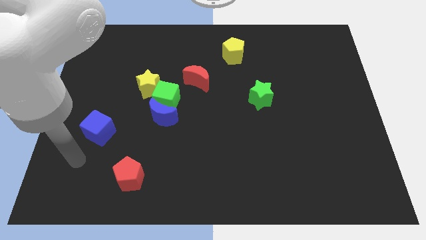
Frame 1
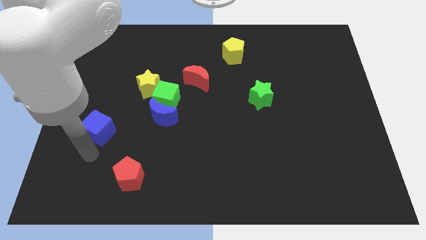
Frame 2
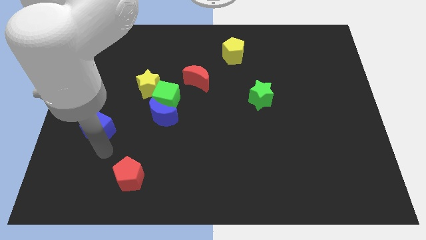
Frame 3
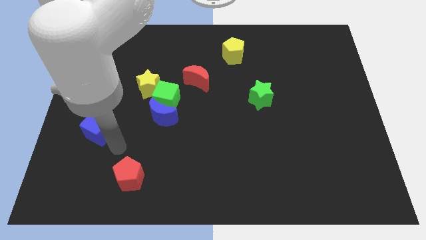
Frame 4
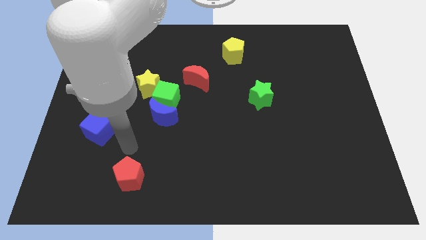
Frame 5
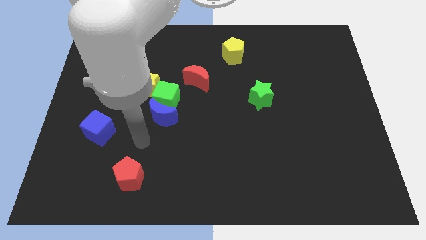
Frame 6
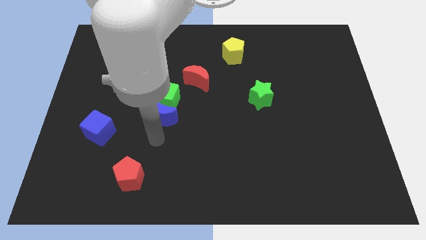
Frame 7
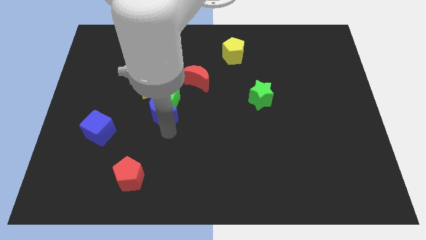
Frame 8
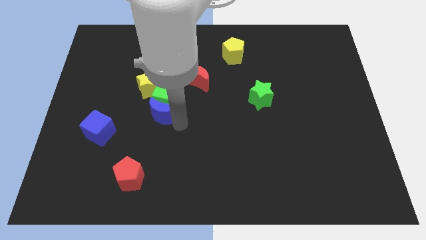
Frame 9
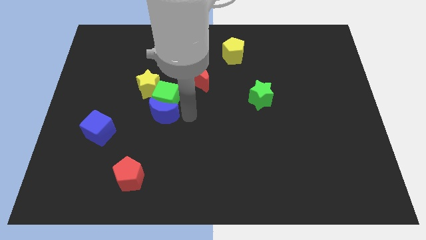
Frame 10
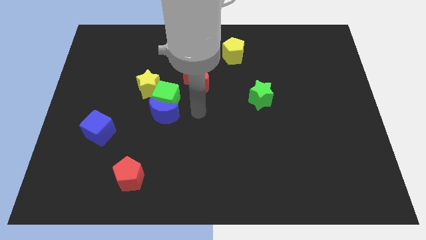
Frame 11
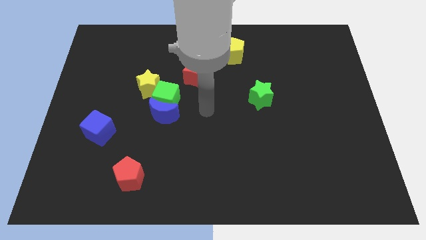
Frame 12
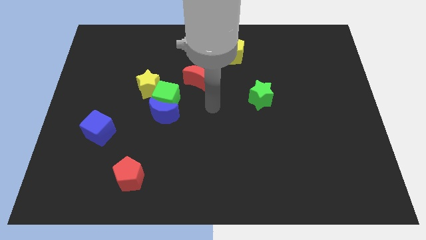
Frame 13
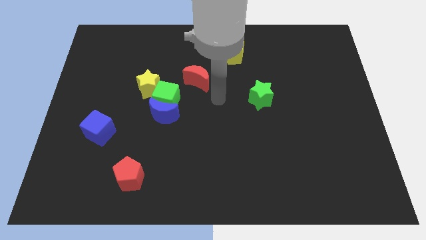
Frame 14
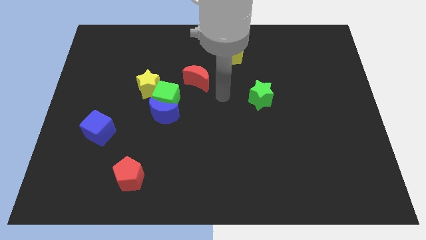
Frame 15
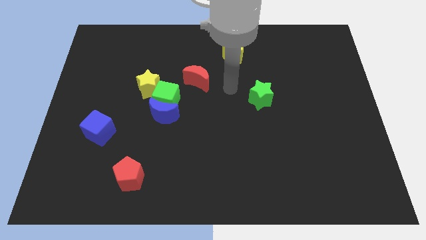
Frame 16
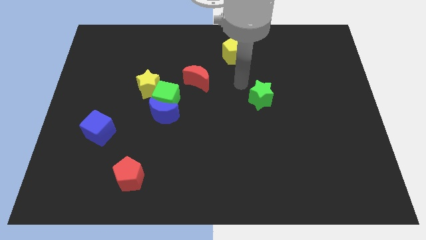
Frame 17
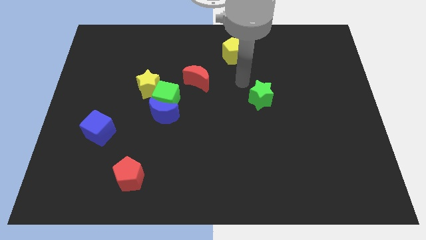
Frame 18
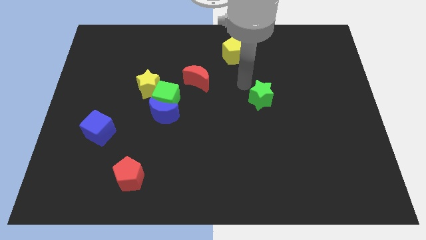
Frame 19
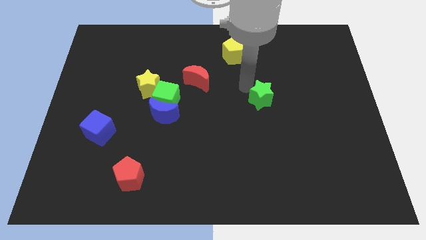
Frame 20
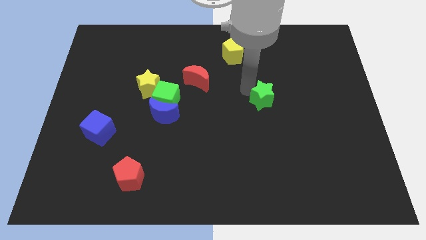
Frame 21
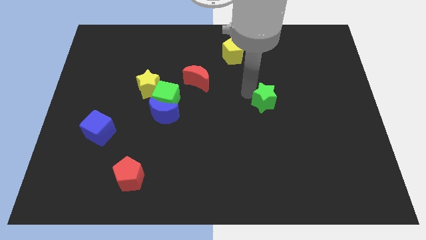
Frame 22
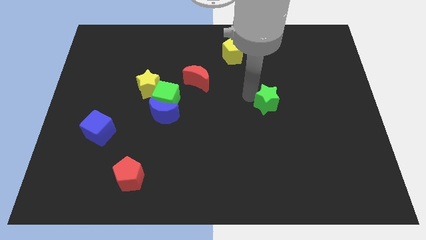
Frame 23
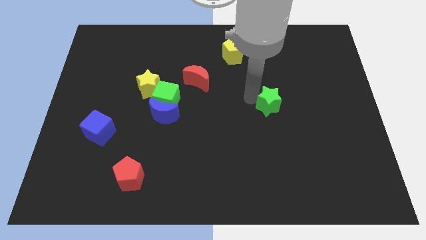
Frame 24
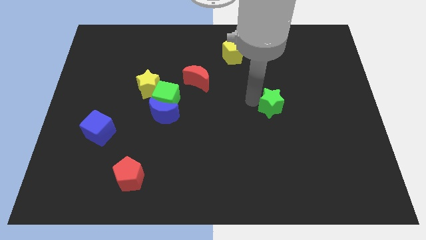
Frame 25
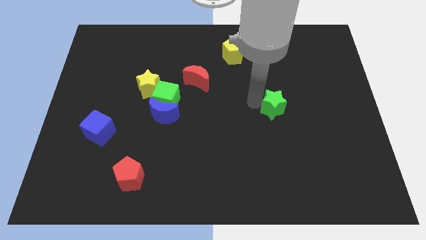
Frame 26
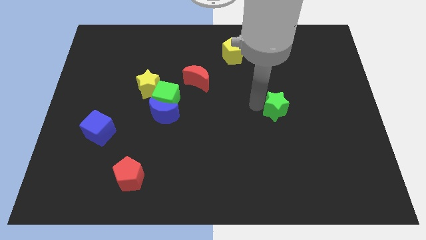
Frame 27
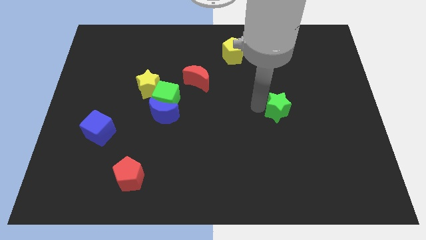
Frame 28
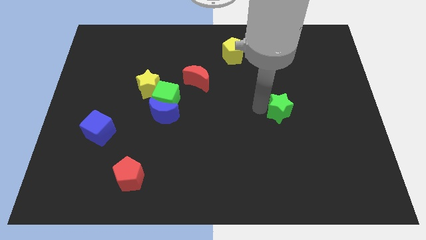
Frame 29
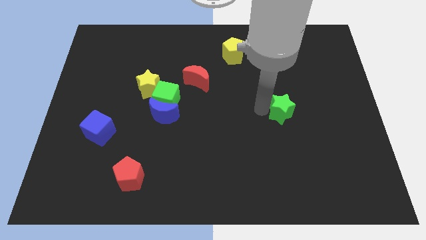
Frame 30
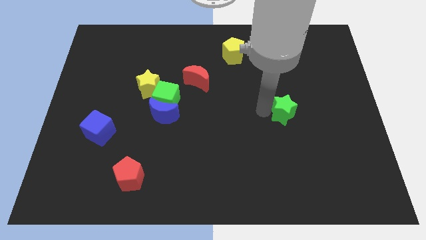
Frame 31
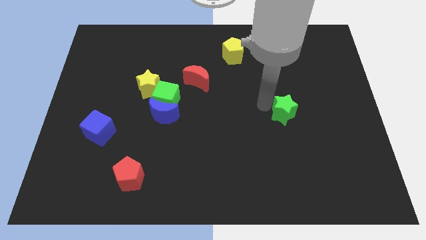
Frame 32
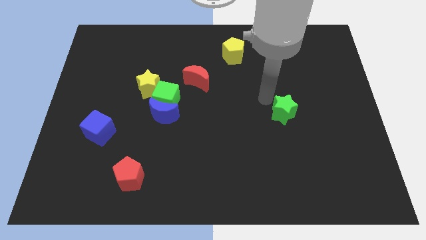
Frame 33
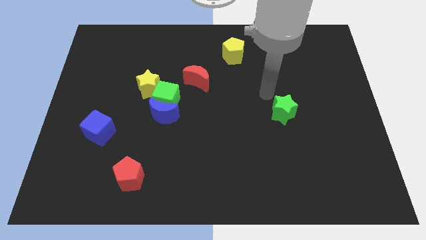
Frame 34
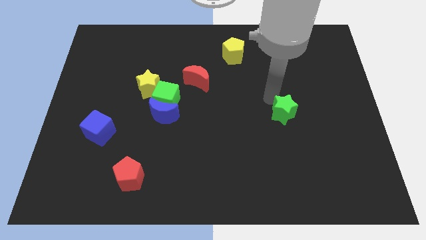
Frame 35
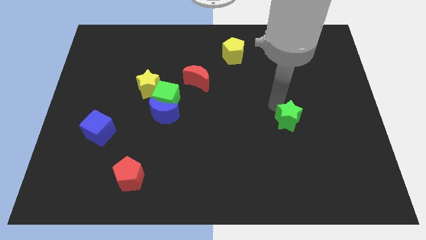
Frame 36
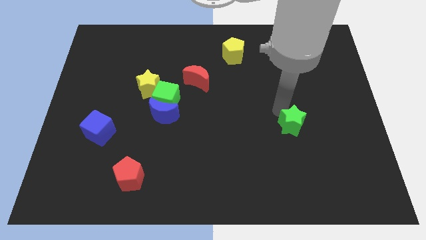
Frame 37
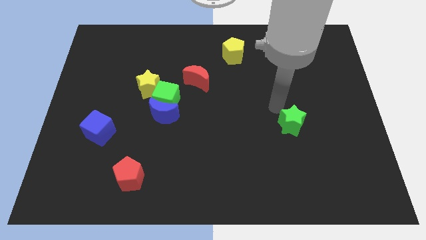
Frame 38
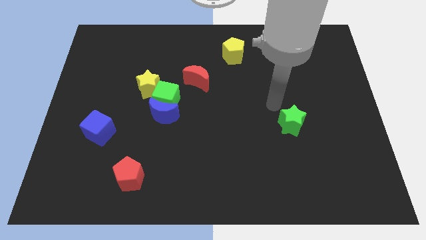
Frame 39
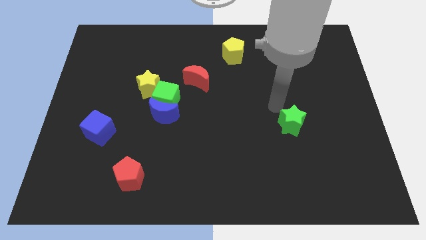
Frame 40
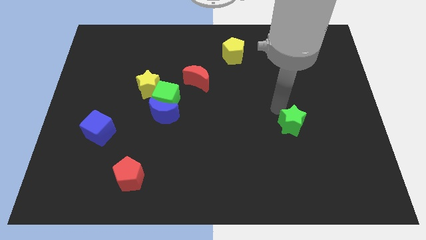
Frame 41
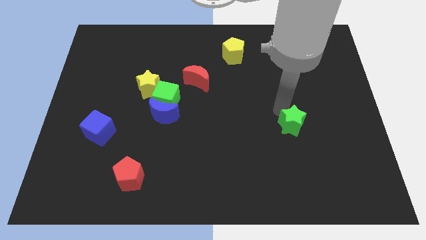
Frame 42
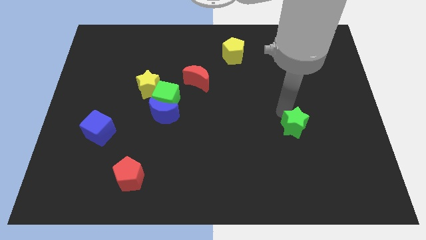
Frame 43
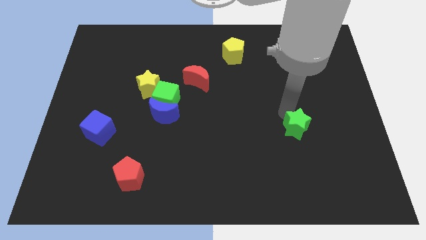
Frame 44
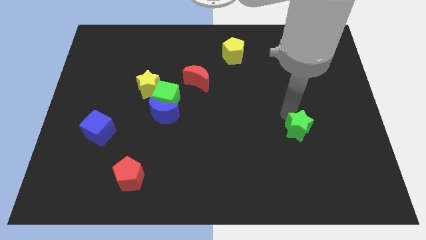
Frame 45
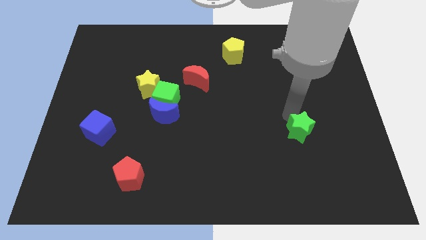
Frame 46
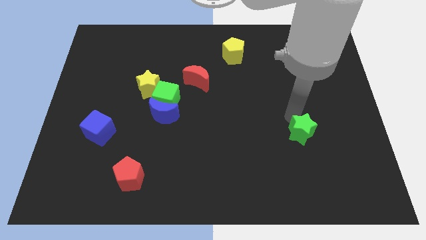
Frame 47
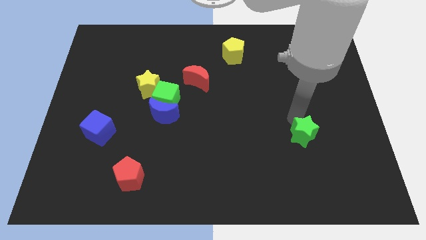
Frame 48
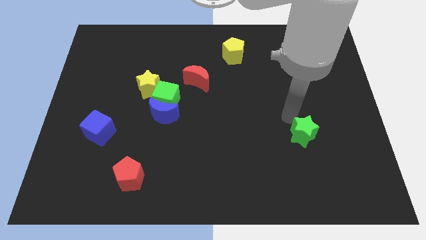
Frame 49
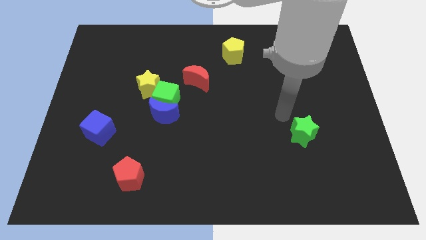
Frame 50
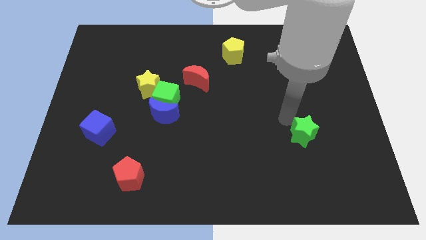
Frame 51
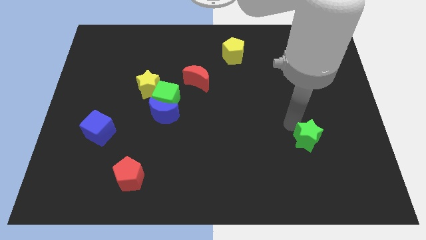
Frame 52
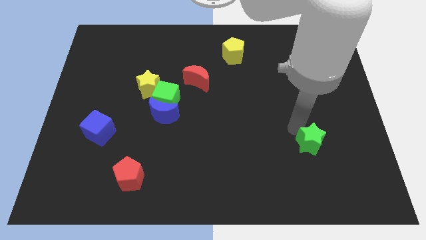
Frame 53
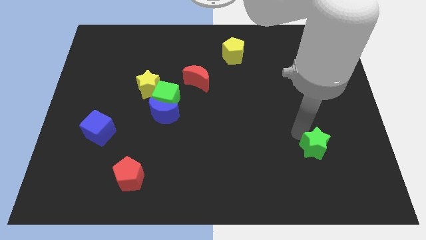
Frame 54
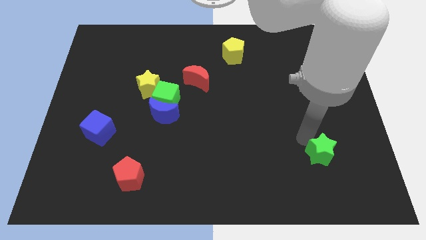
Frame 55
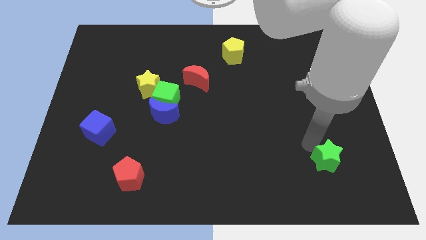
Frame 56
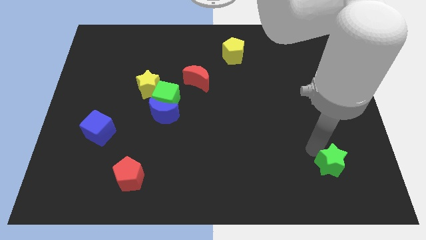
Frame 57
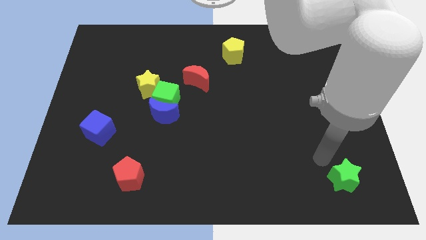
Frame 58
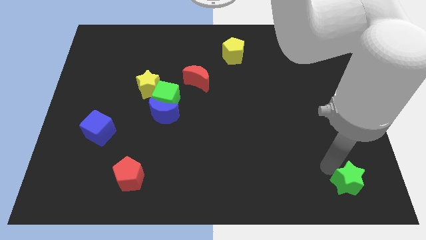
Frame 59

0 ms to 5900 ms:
push the green star to the bottom right corner
